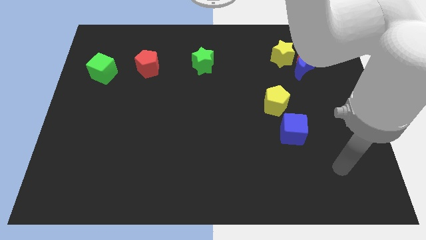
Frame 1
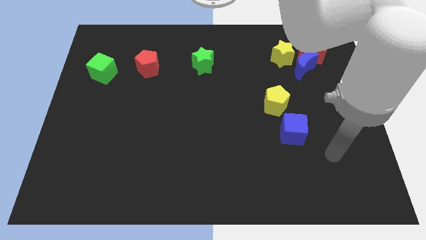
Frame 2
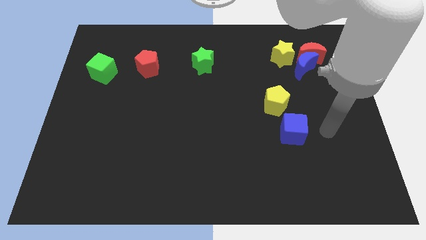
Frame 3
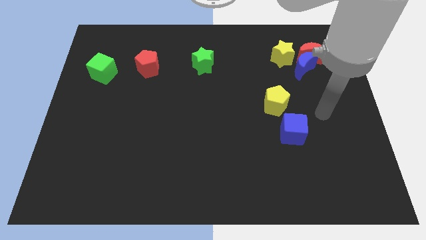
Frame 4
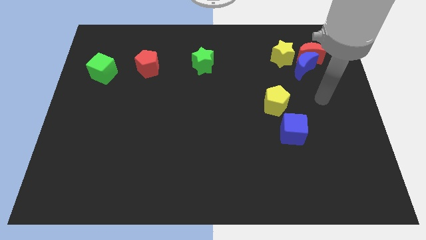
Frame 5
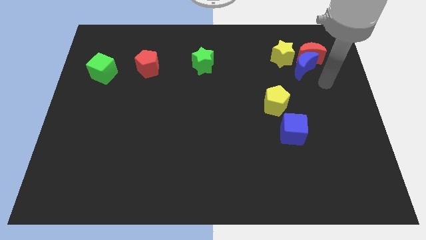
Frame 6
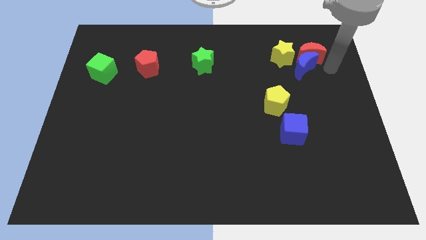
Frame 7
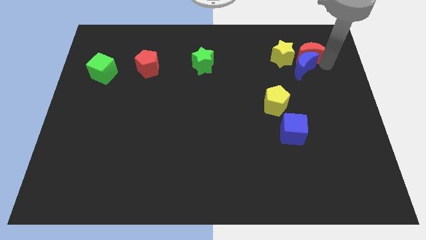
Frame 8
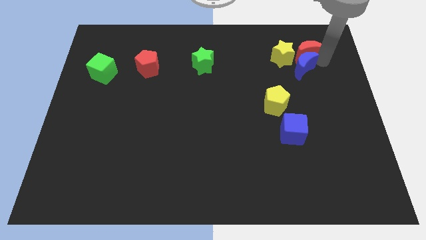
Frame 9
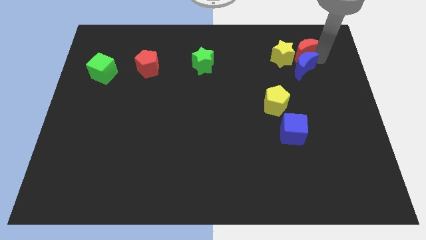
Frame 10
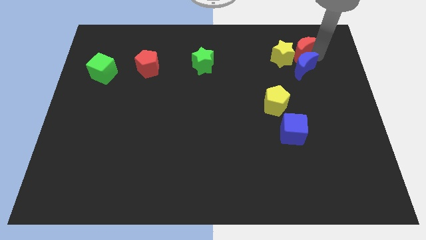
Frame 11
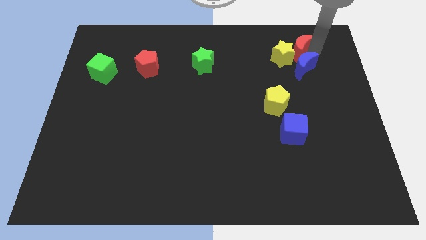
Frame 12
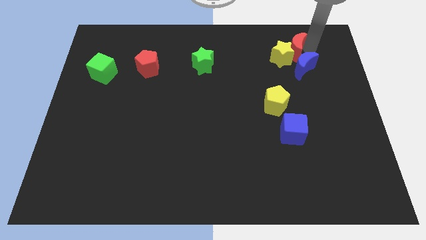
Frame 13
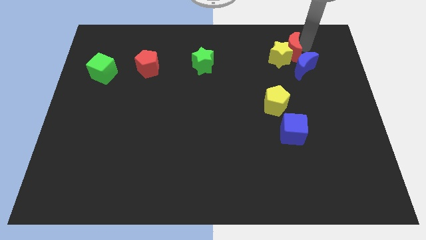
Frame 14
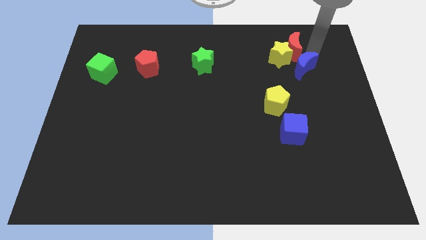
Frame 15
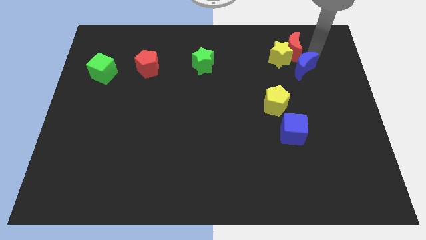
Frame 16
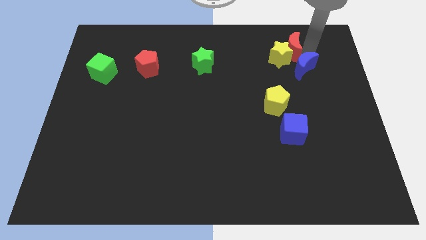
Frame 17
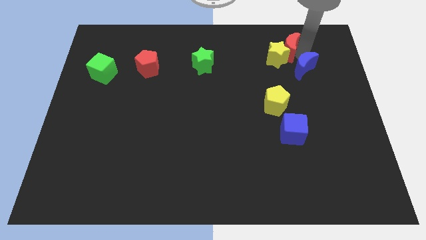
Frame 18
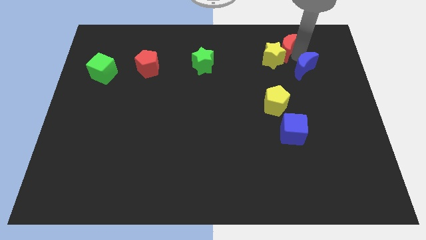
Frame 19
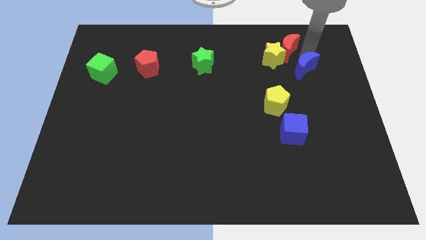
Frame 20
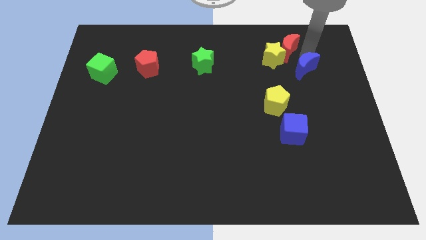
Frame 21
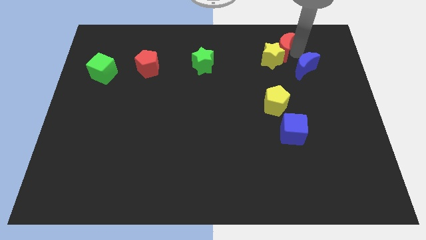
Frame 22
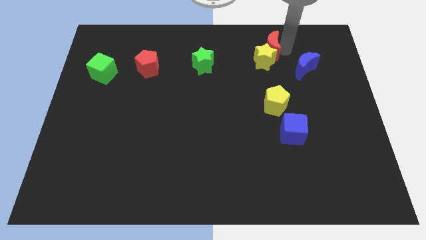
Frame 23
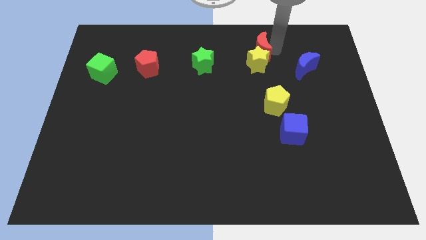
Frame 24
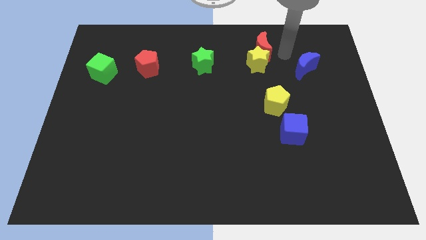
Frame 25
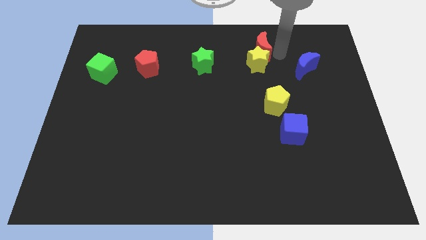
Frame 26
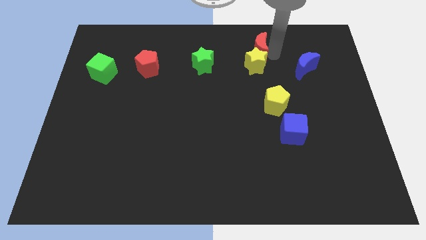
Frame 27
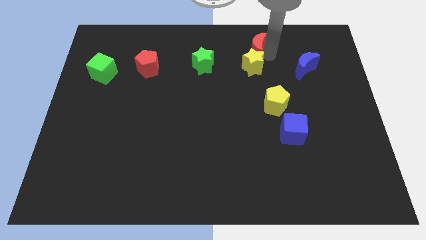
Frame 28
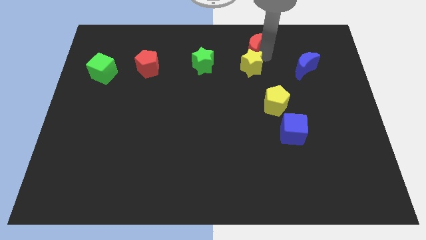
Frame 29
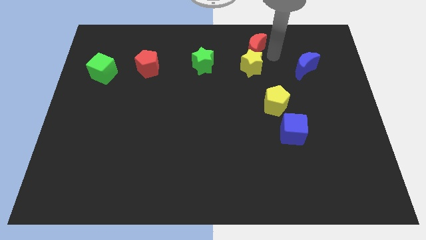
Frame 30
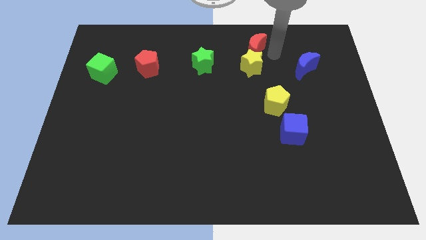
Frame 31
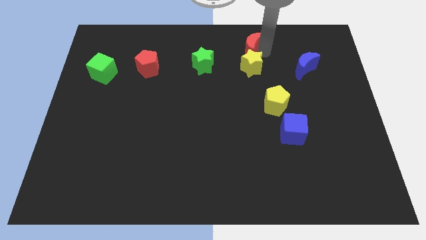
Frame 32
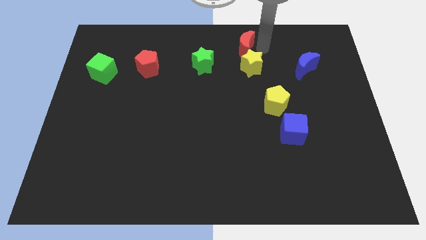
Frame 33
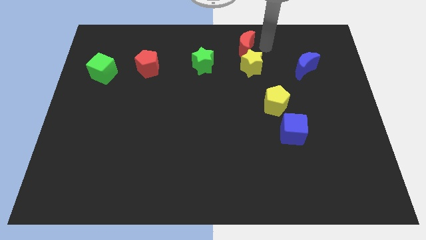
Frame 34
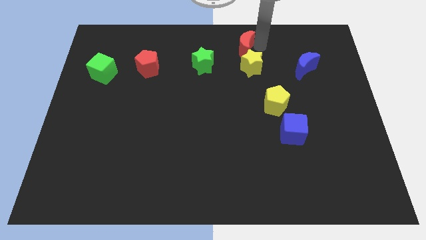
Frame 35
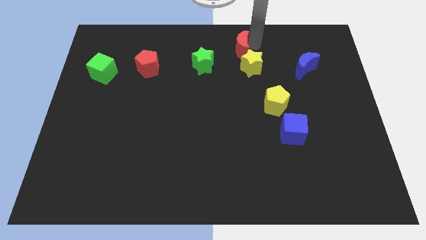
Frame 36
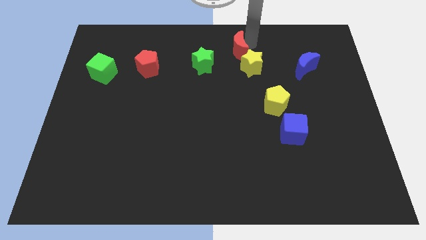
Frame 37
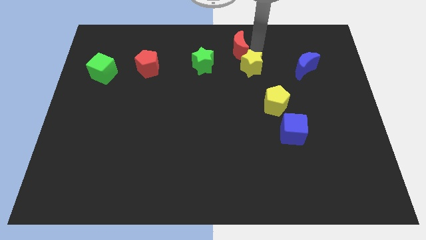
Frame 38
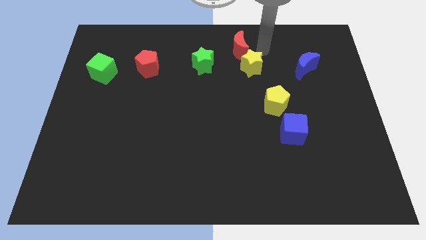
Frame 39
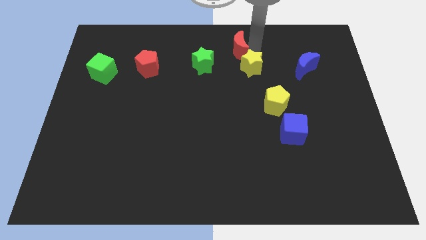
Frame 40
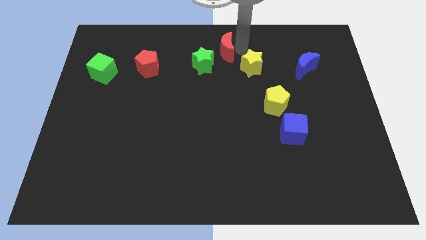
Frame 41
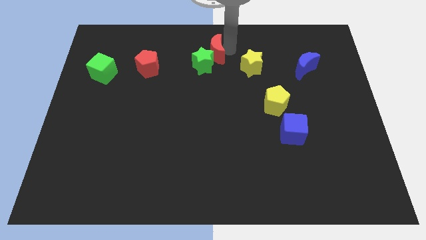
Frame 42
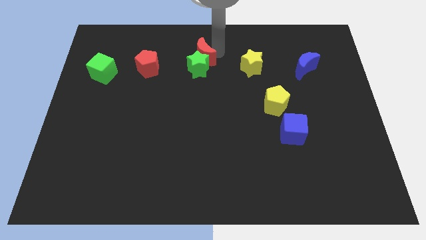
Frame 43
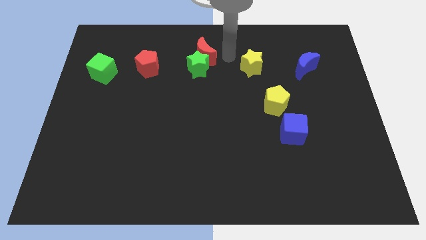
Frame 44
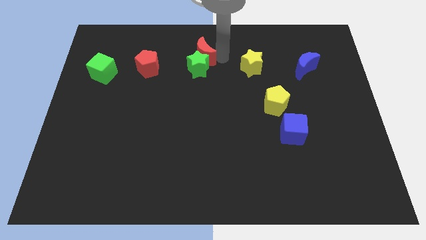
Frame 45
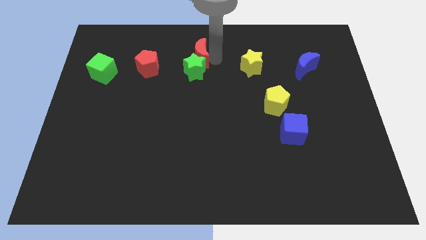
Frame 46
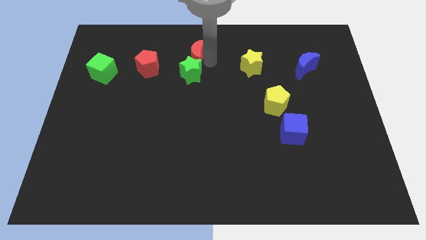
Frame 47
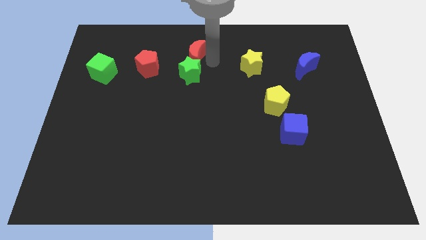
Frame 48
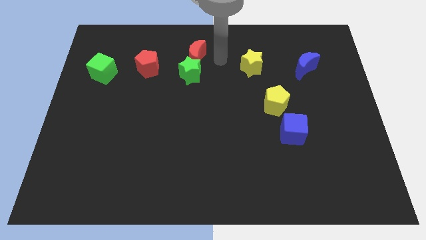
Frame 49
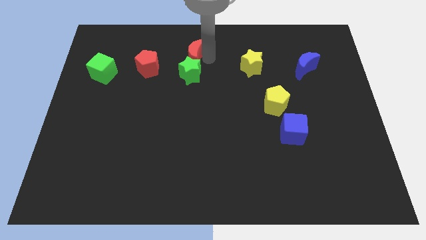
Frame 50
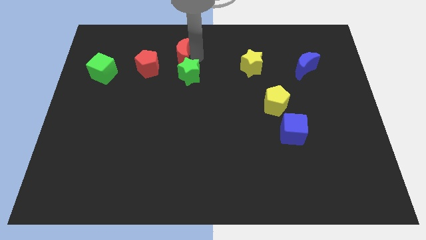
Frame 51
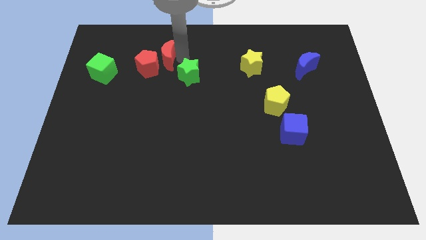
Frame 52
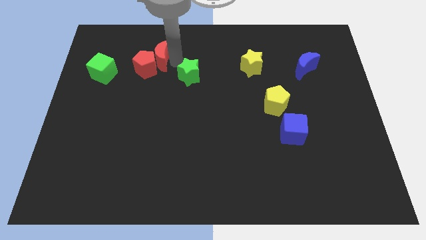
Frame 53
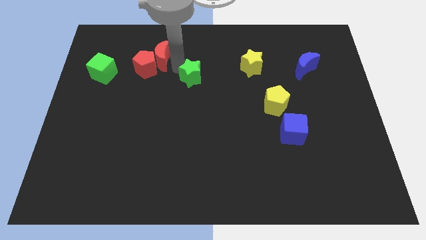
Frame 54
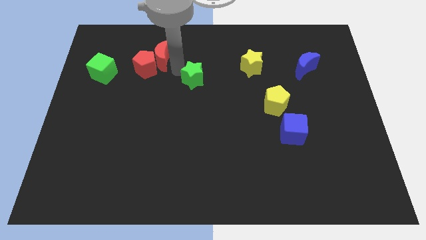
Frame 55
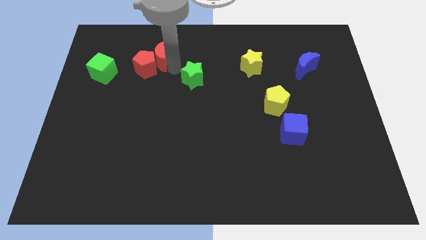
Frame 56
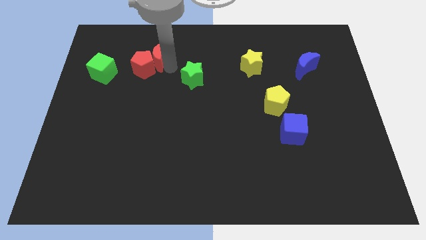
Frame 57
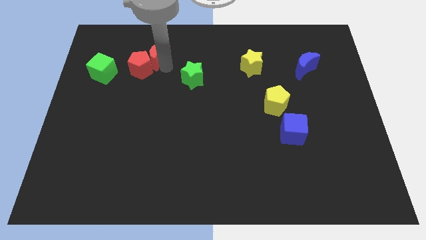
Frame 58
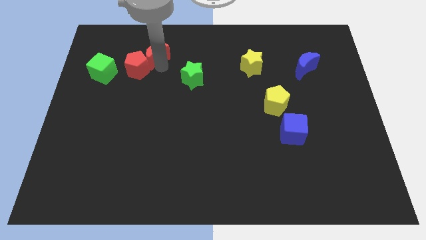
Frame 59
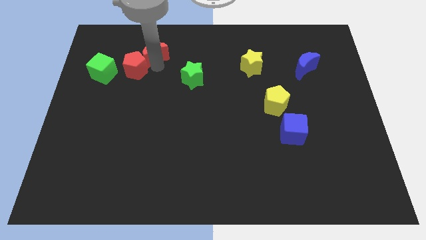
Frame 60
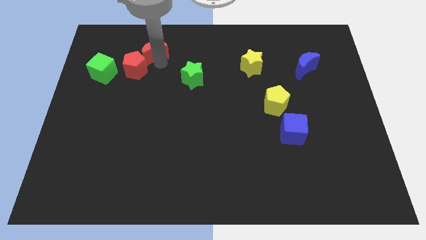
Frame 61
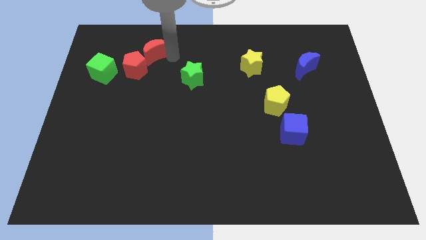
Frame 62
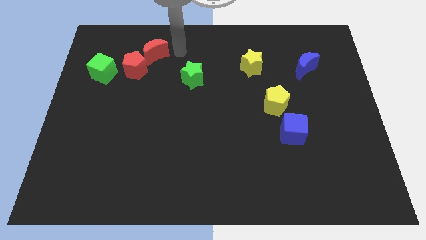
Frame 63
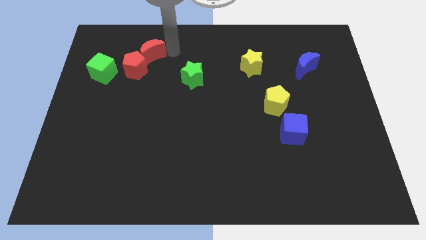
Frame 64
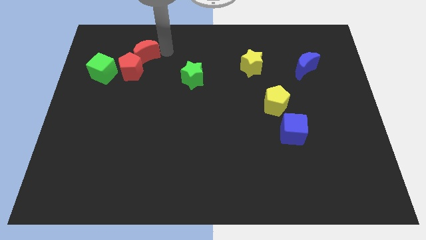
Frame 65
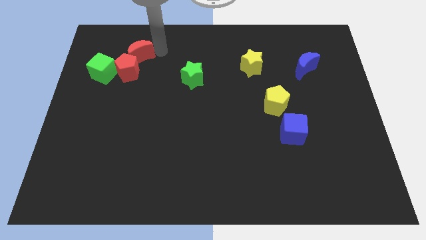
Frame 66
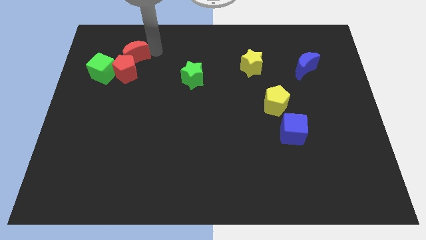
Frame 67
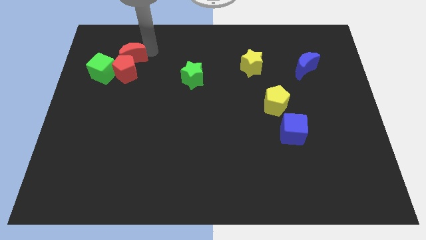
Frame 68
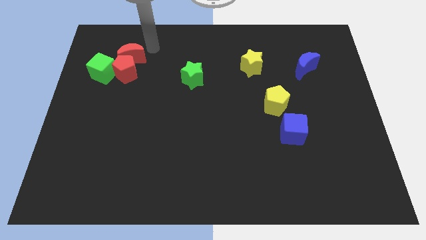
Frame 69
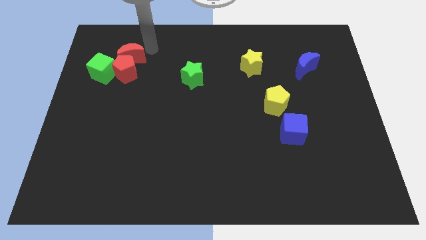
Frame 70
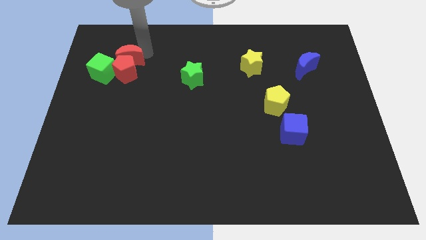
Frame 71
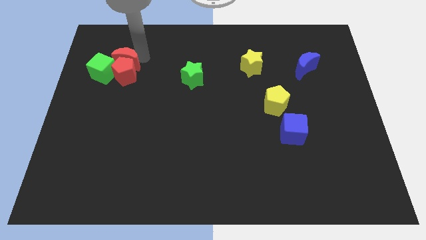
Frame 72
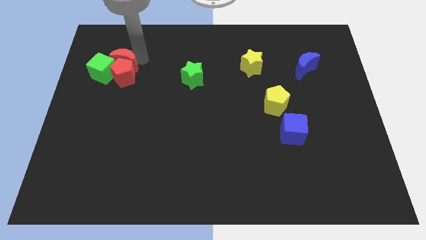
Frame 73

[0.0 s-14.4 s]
push the red moon to the green cube

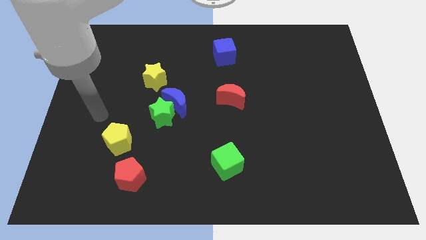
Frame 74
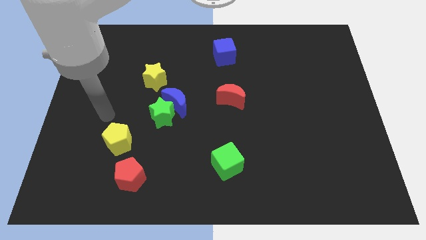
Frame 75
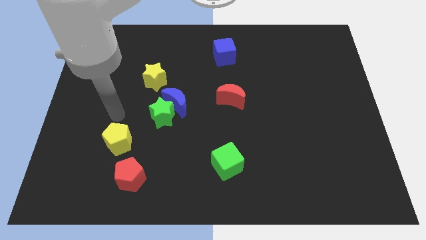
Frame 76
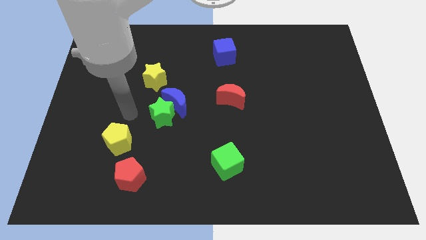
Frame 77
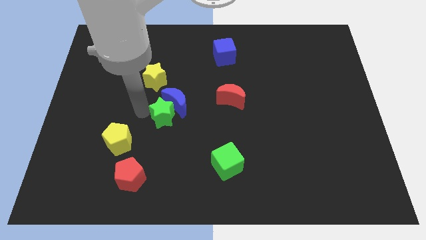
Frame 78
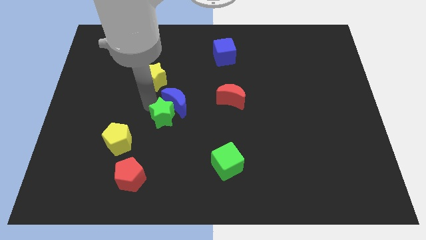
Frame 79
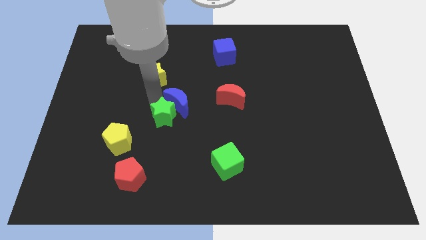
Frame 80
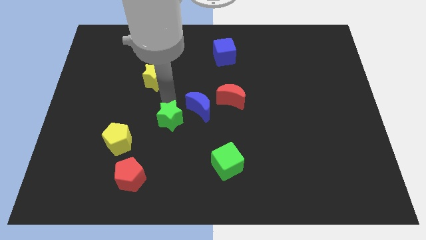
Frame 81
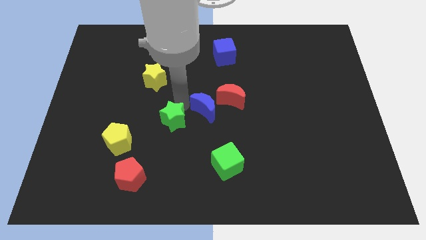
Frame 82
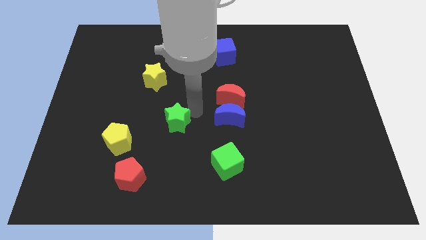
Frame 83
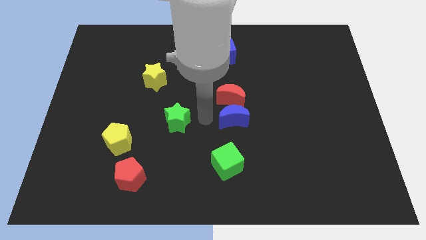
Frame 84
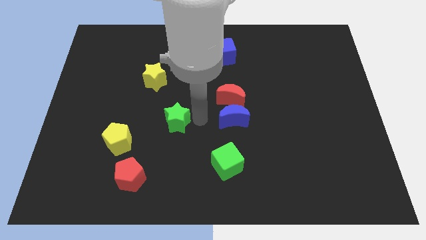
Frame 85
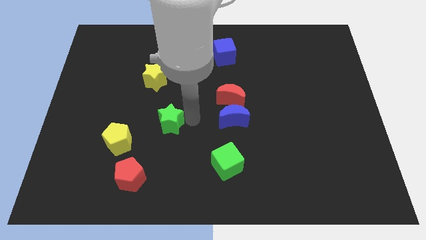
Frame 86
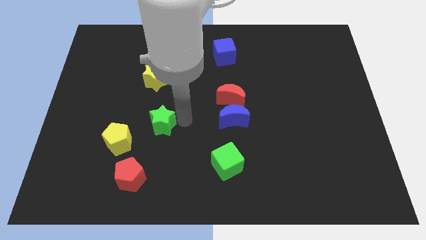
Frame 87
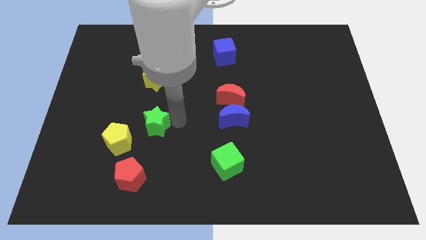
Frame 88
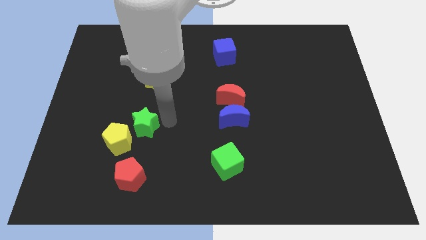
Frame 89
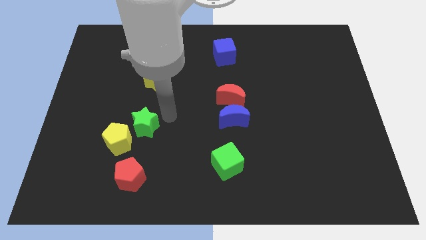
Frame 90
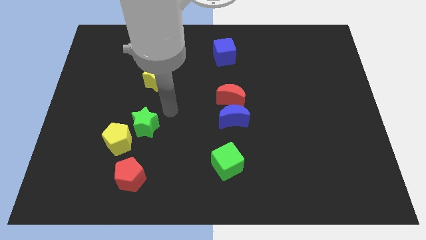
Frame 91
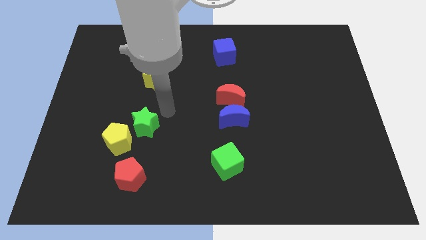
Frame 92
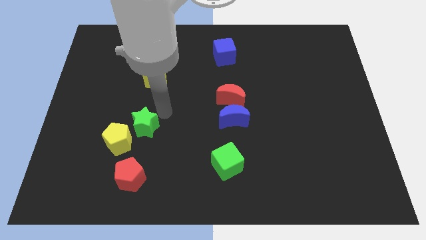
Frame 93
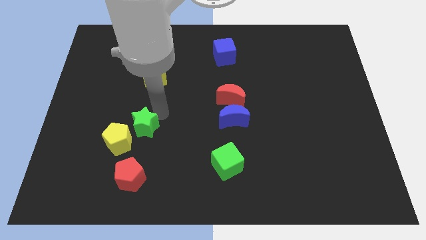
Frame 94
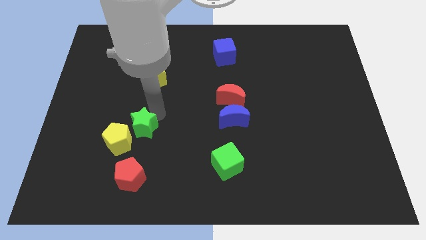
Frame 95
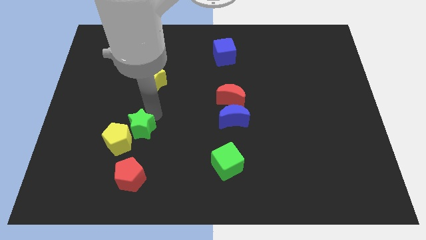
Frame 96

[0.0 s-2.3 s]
slide the green star towards the yellow pentagon
